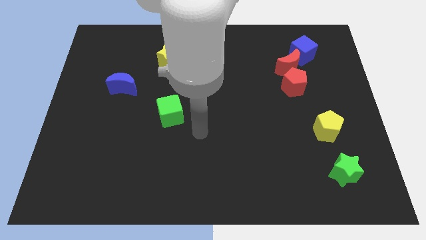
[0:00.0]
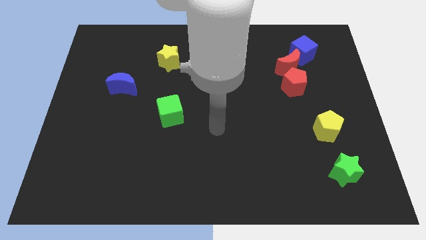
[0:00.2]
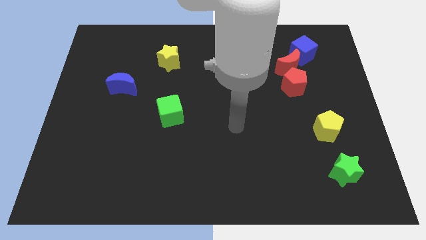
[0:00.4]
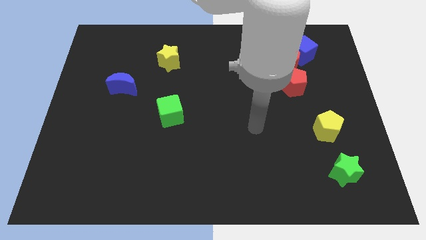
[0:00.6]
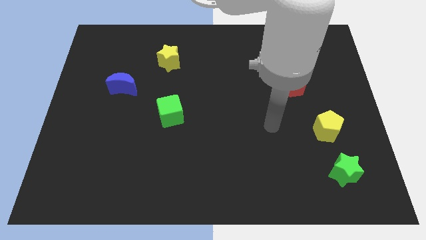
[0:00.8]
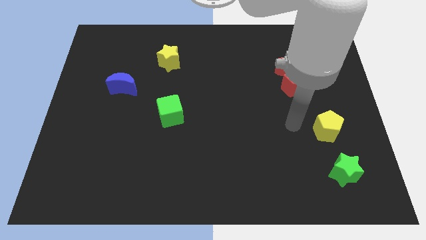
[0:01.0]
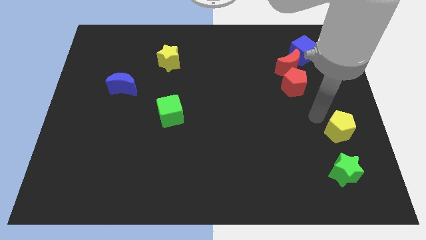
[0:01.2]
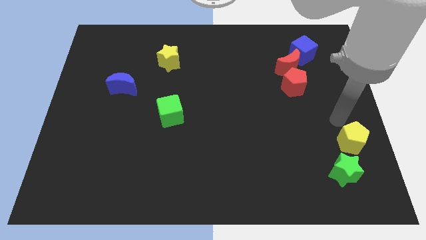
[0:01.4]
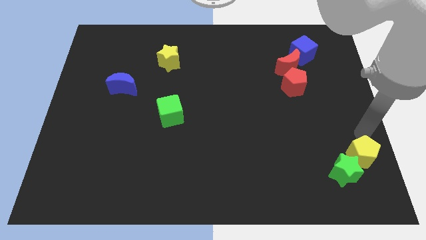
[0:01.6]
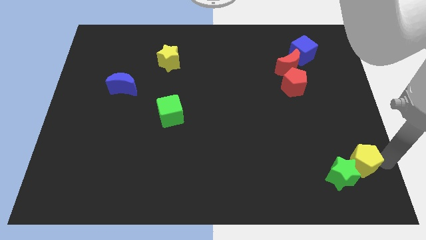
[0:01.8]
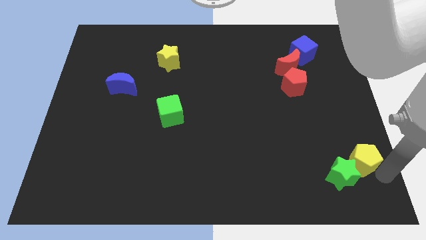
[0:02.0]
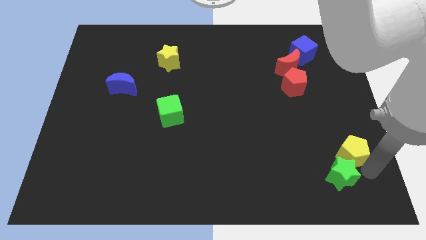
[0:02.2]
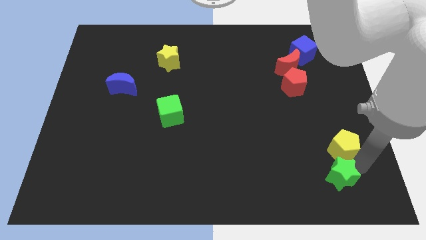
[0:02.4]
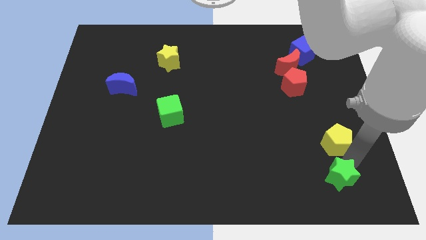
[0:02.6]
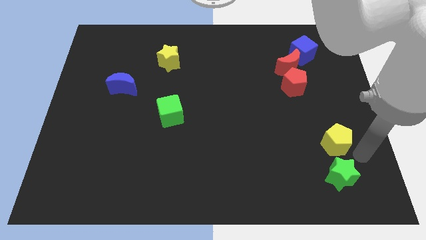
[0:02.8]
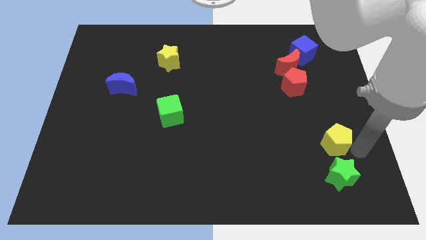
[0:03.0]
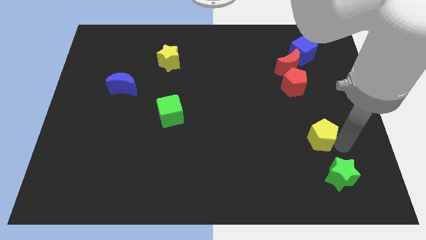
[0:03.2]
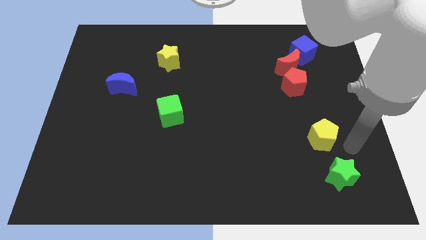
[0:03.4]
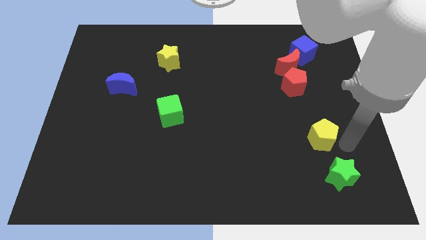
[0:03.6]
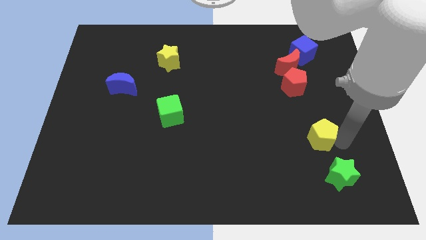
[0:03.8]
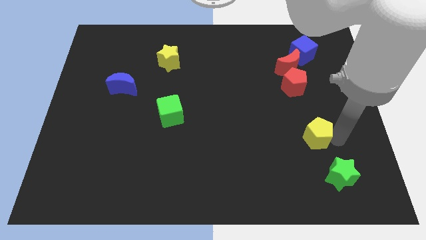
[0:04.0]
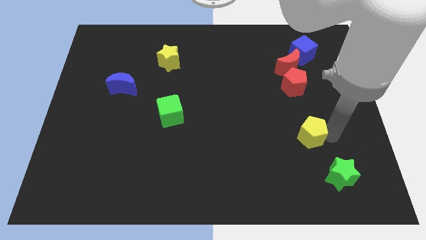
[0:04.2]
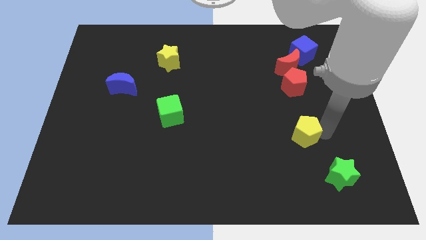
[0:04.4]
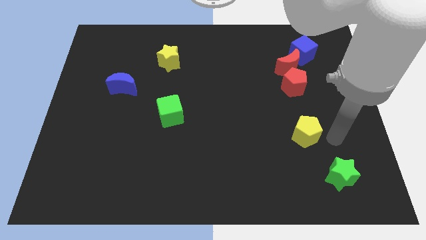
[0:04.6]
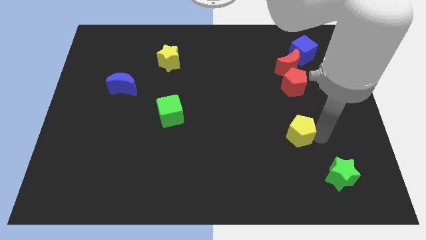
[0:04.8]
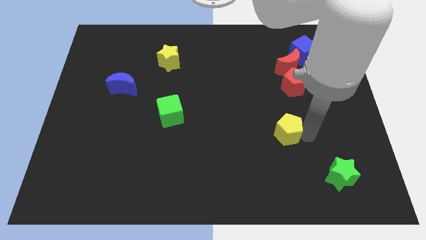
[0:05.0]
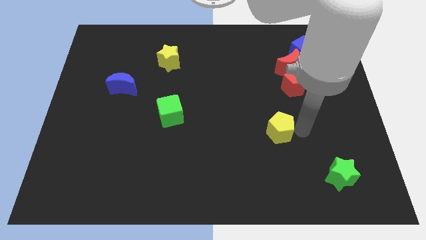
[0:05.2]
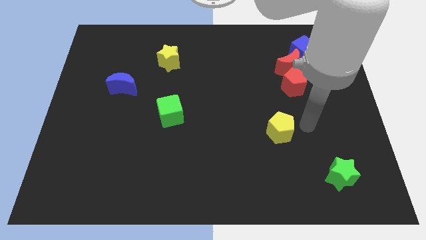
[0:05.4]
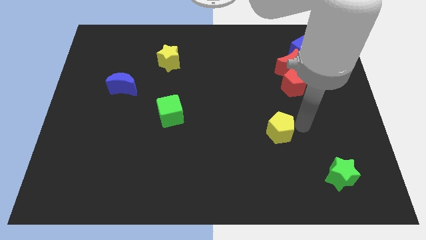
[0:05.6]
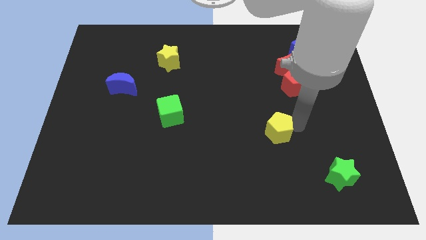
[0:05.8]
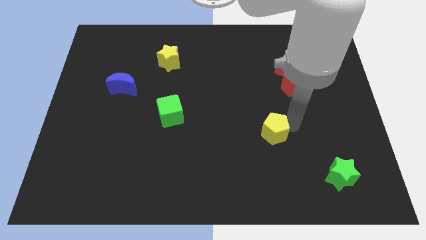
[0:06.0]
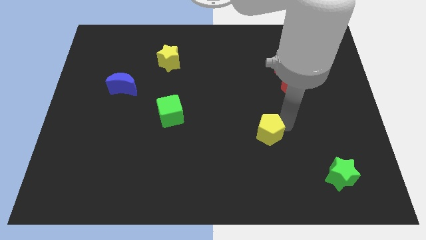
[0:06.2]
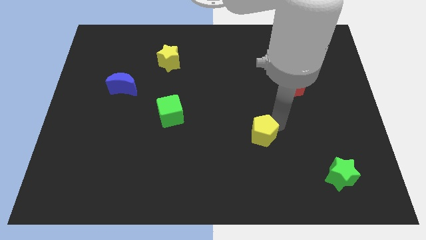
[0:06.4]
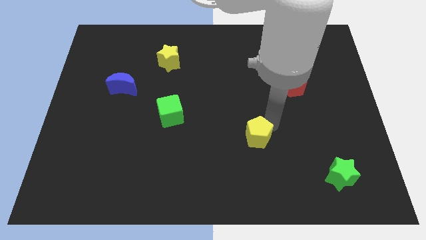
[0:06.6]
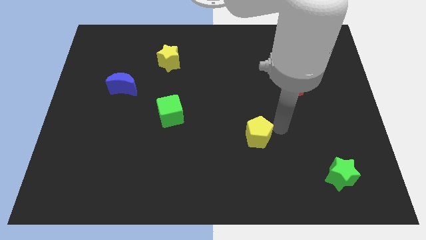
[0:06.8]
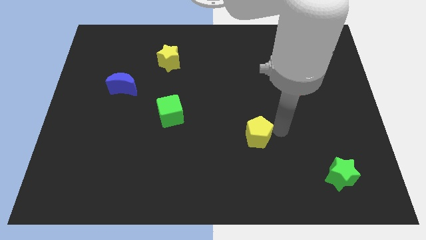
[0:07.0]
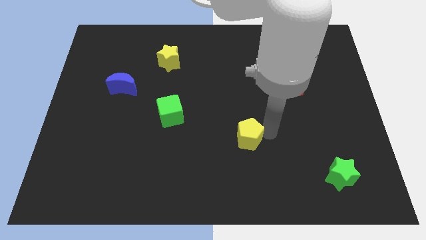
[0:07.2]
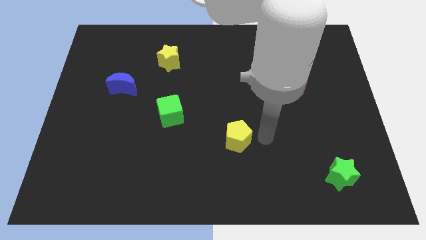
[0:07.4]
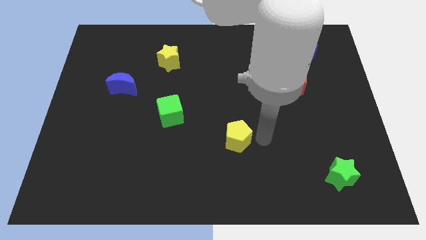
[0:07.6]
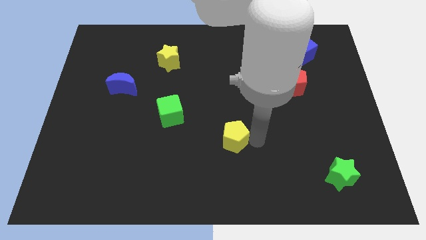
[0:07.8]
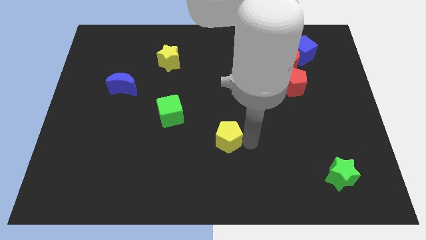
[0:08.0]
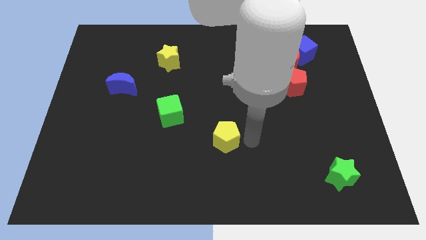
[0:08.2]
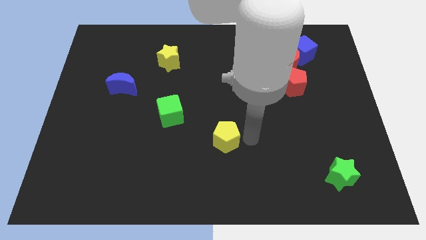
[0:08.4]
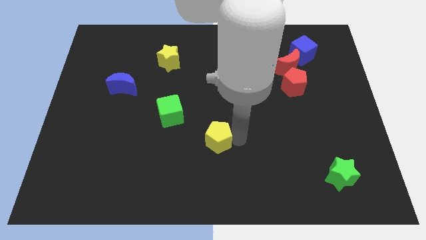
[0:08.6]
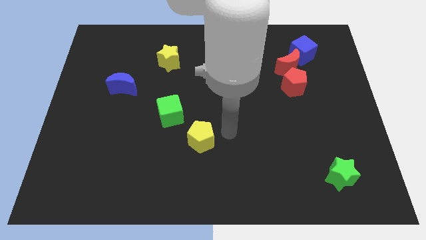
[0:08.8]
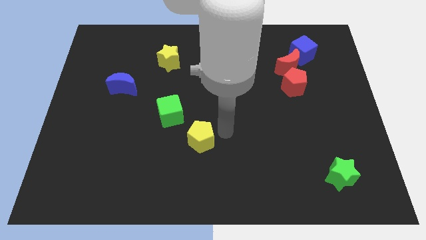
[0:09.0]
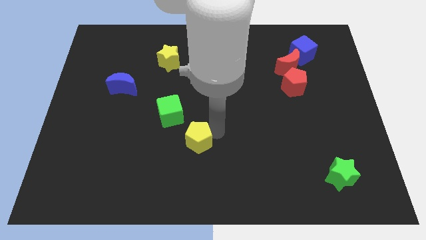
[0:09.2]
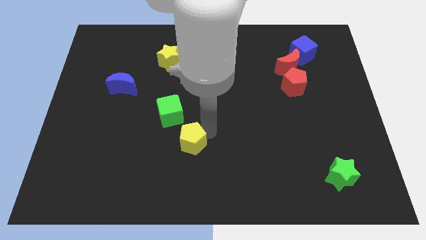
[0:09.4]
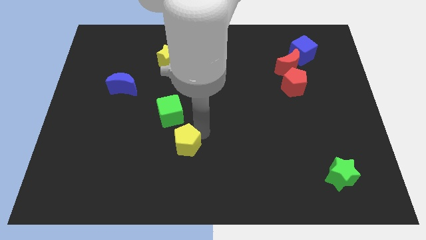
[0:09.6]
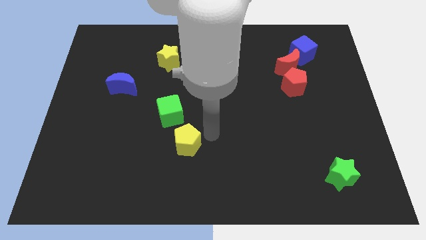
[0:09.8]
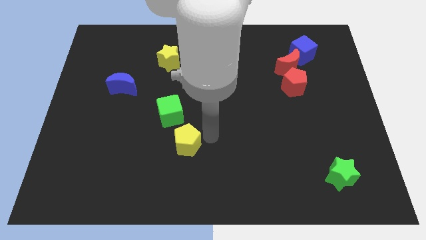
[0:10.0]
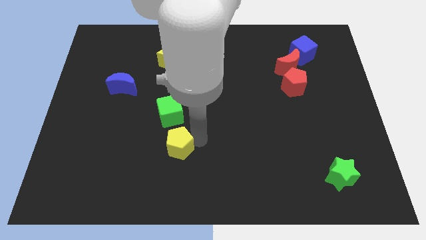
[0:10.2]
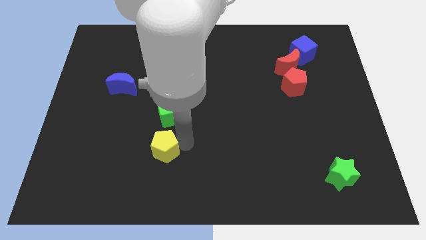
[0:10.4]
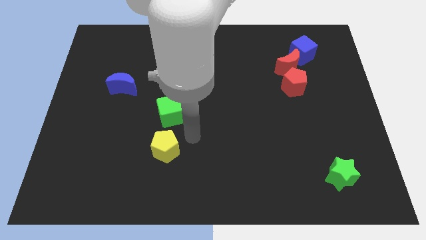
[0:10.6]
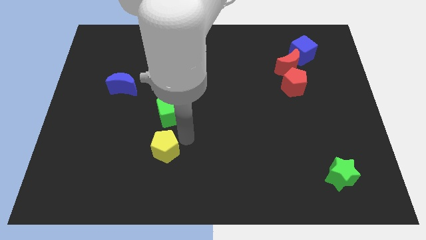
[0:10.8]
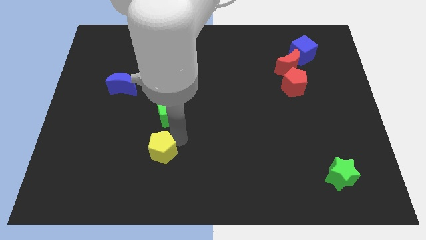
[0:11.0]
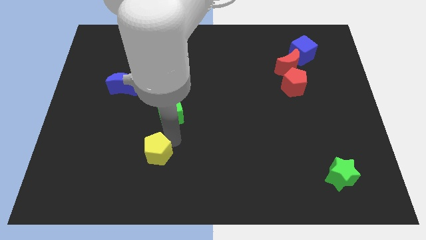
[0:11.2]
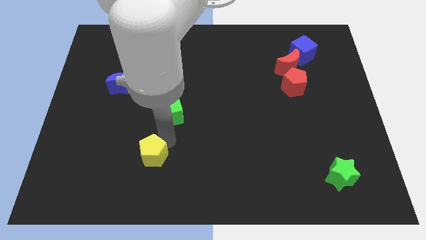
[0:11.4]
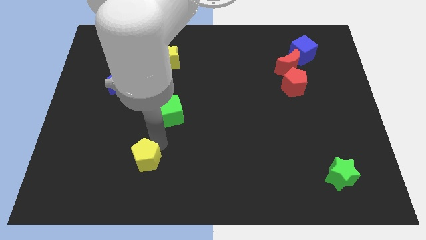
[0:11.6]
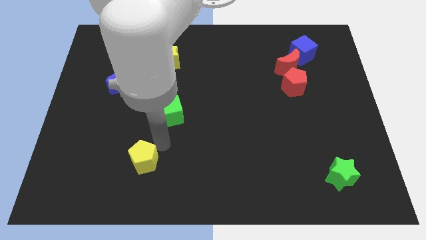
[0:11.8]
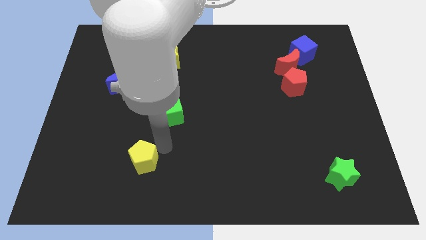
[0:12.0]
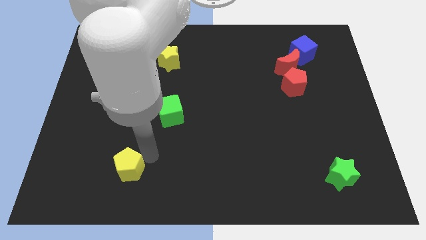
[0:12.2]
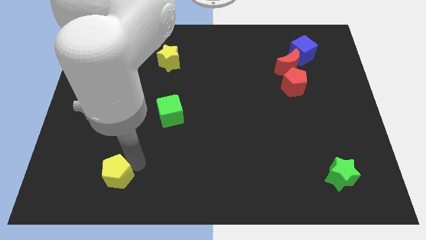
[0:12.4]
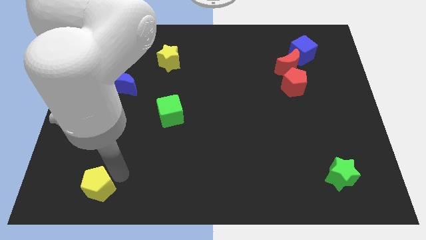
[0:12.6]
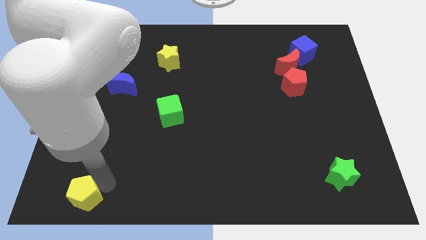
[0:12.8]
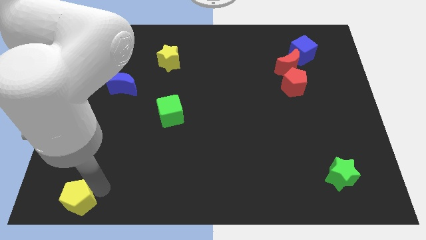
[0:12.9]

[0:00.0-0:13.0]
move the yellow pentagon to the lower left corner

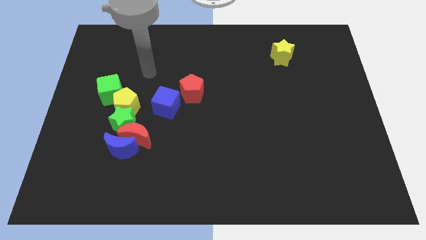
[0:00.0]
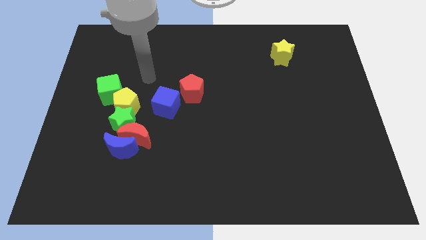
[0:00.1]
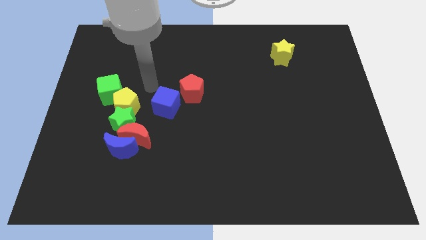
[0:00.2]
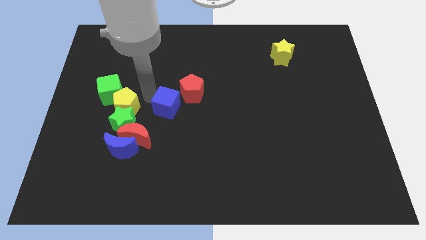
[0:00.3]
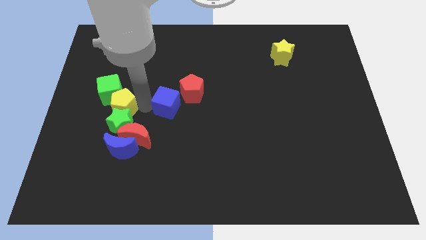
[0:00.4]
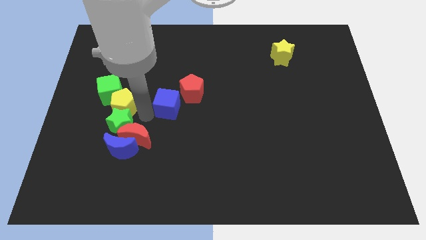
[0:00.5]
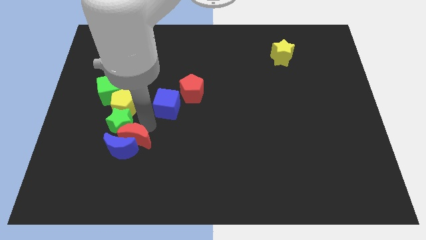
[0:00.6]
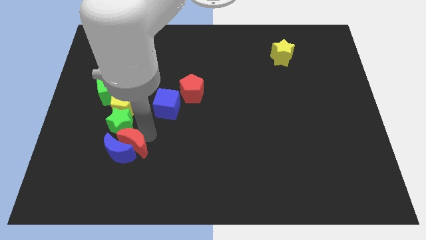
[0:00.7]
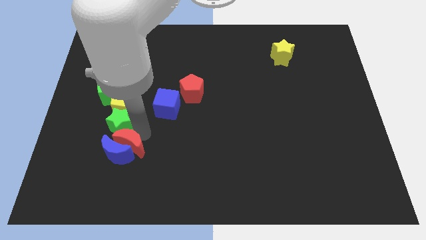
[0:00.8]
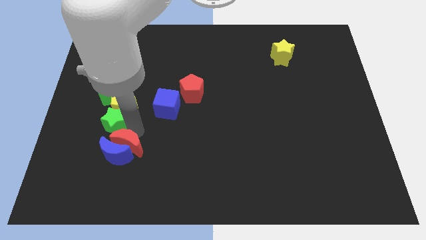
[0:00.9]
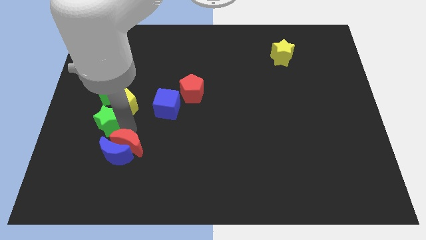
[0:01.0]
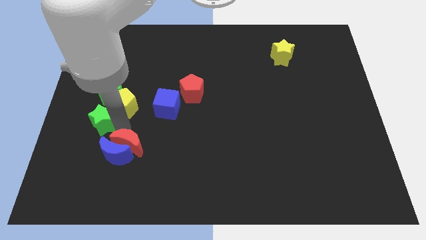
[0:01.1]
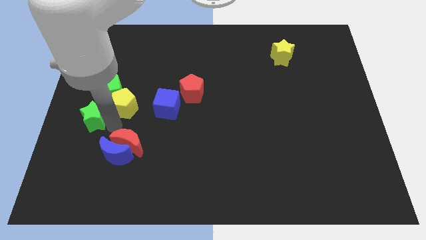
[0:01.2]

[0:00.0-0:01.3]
push the green star to the left side of the board
